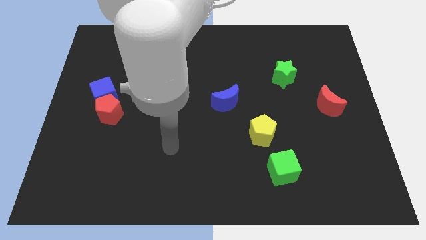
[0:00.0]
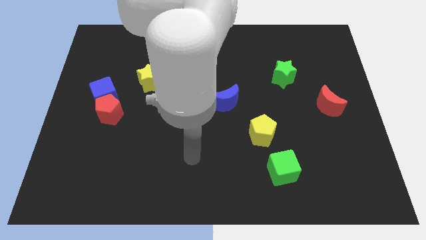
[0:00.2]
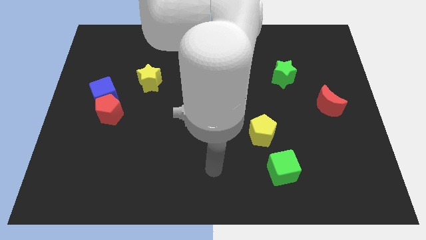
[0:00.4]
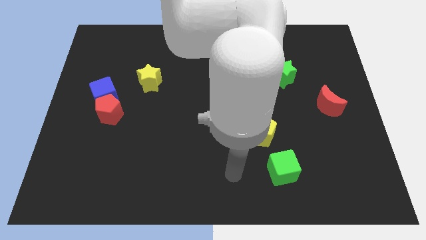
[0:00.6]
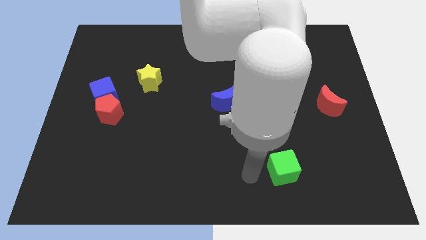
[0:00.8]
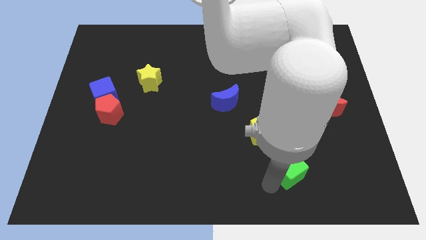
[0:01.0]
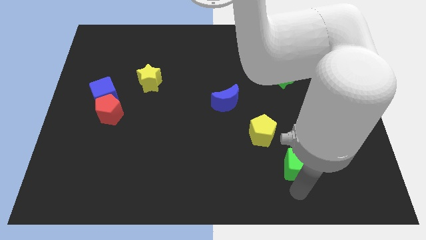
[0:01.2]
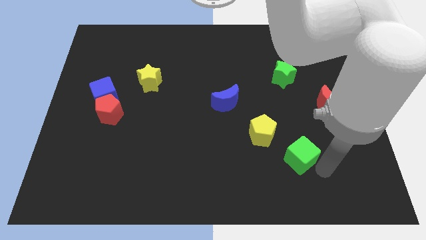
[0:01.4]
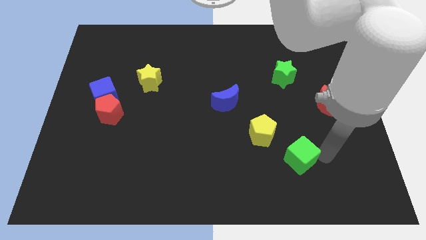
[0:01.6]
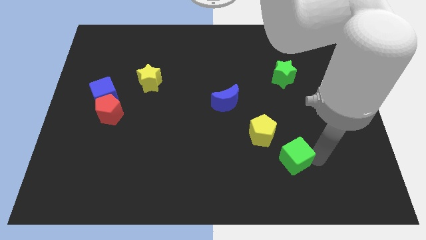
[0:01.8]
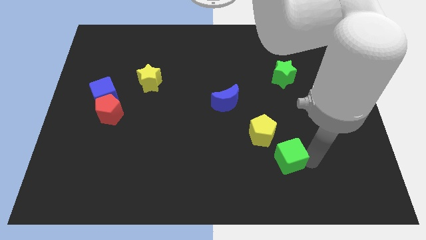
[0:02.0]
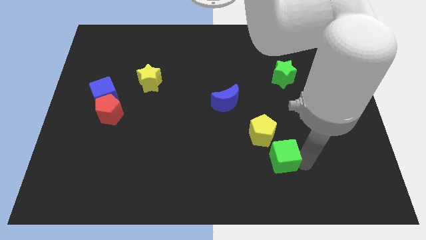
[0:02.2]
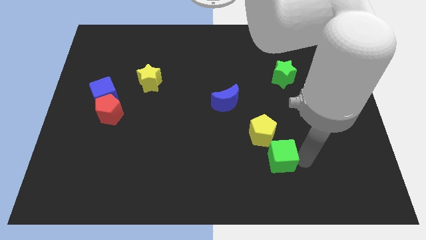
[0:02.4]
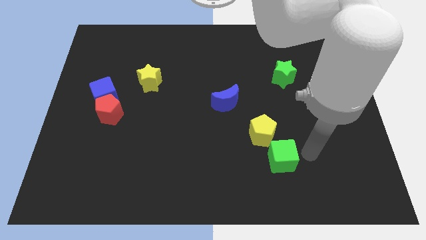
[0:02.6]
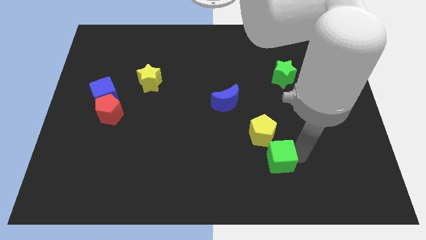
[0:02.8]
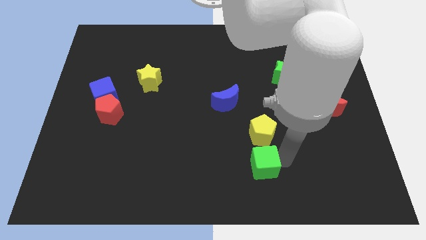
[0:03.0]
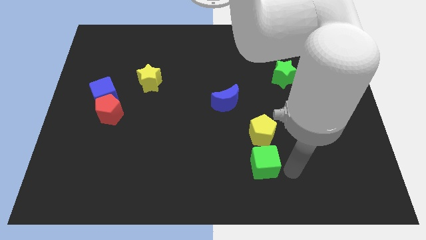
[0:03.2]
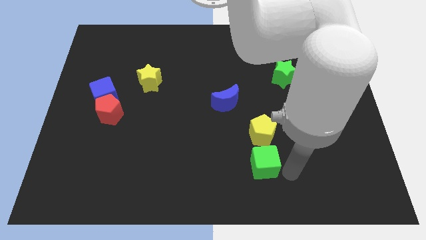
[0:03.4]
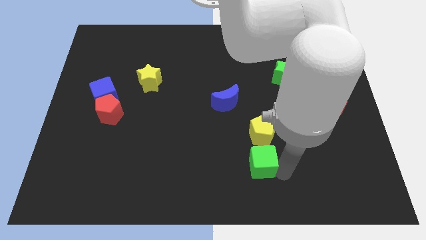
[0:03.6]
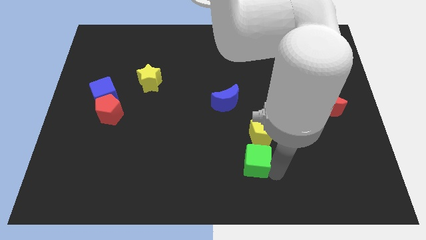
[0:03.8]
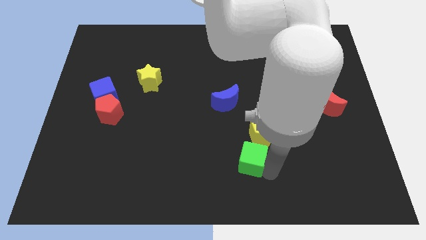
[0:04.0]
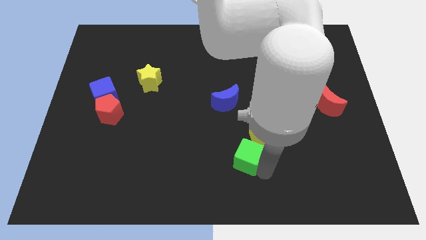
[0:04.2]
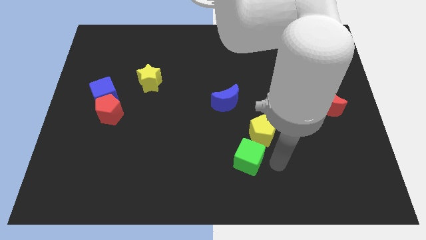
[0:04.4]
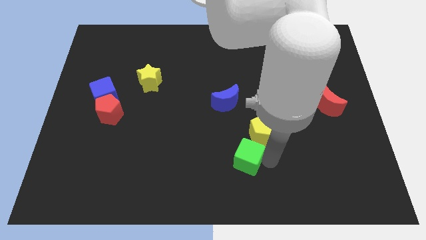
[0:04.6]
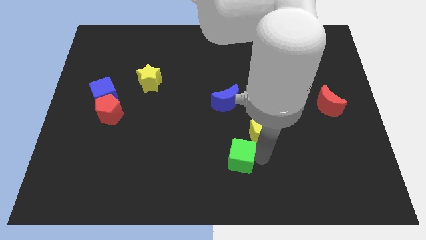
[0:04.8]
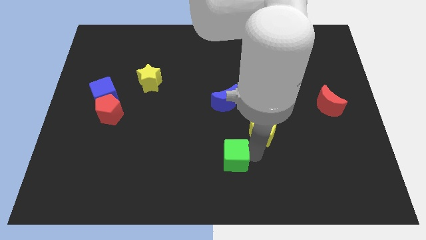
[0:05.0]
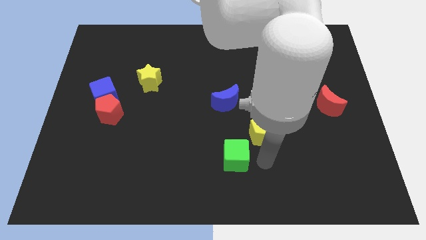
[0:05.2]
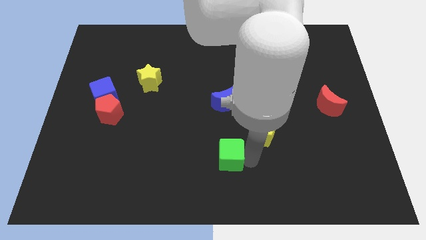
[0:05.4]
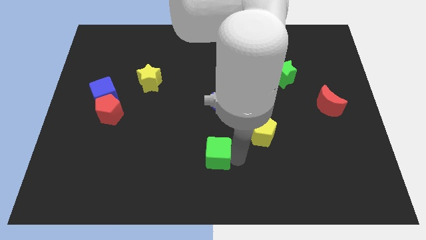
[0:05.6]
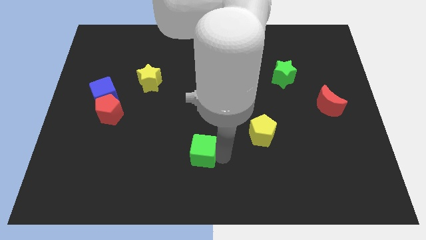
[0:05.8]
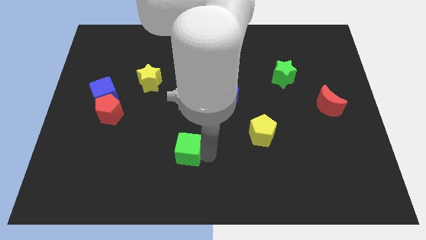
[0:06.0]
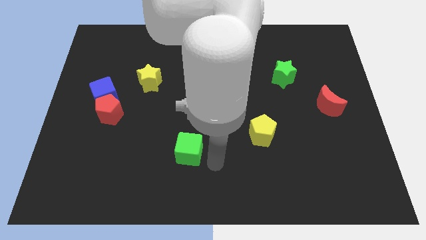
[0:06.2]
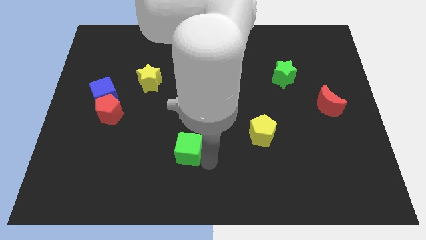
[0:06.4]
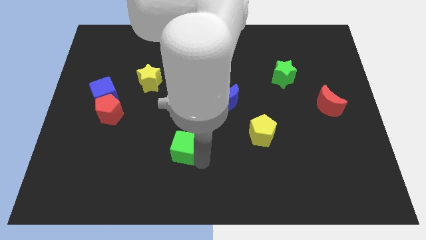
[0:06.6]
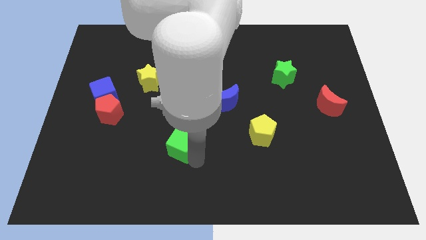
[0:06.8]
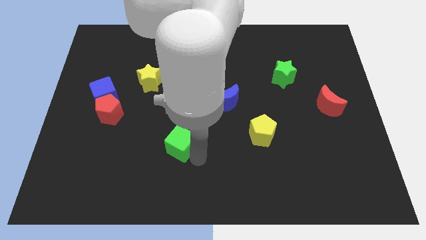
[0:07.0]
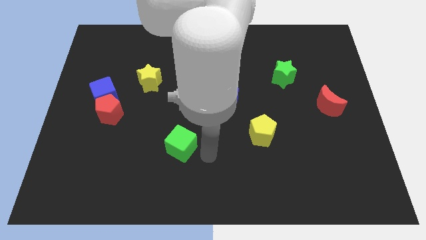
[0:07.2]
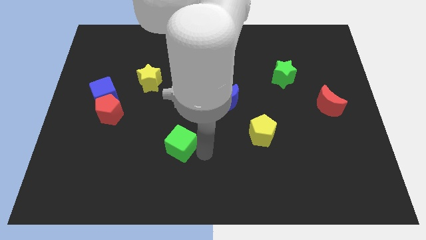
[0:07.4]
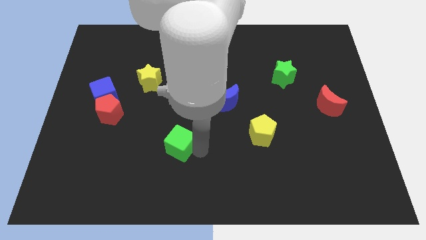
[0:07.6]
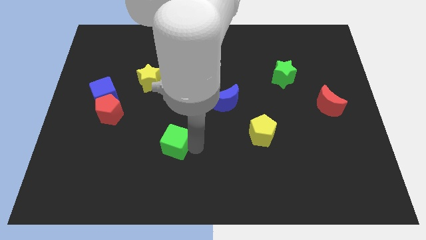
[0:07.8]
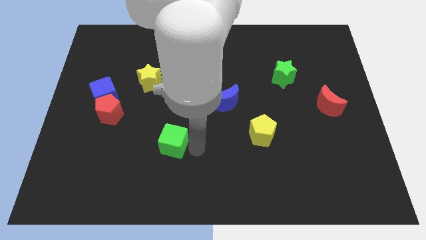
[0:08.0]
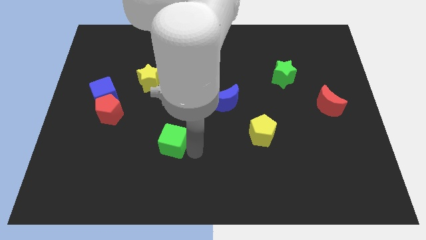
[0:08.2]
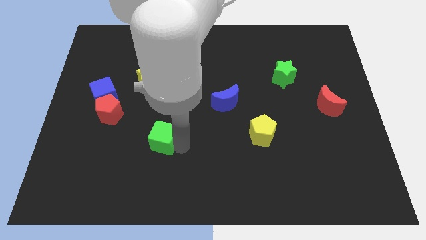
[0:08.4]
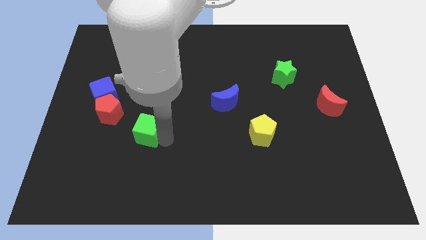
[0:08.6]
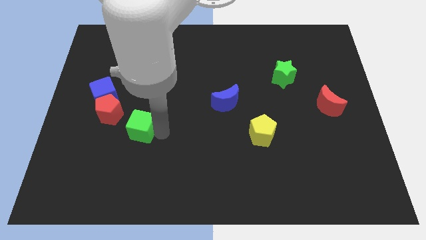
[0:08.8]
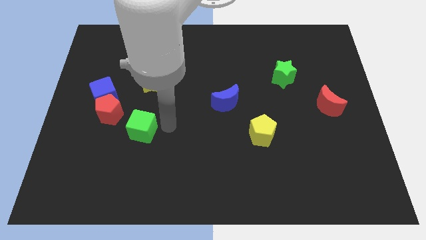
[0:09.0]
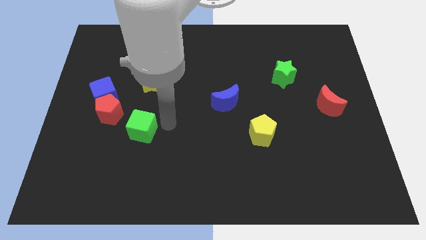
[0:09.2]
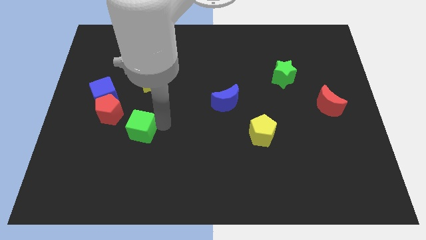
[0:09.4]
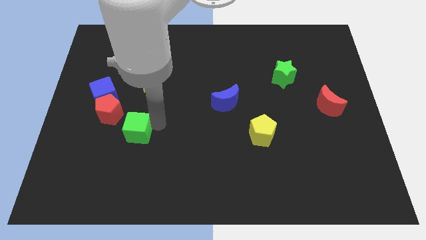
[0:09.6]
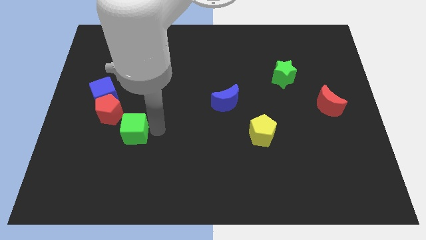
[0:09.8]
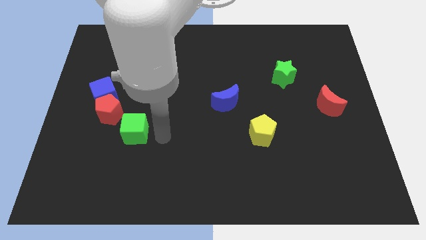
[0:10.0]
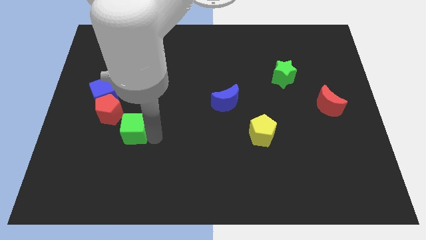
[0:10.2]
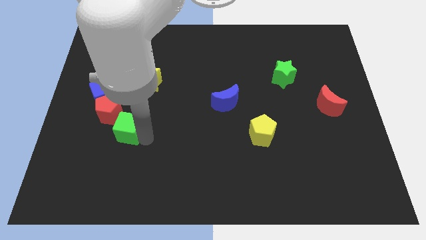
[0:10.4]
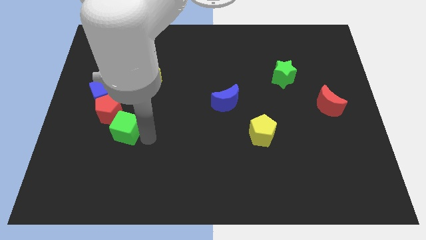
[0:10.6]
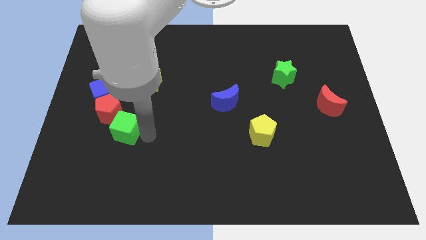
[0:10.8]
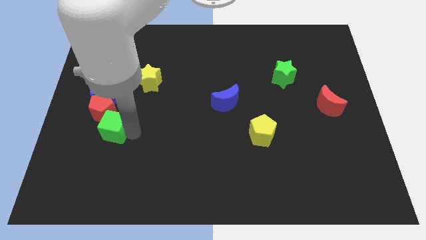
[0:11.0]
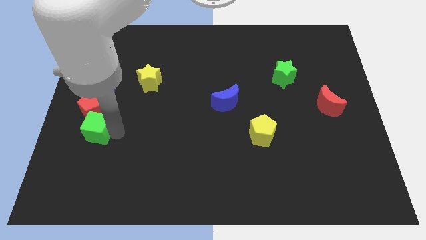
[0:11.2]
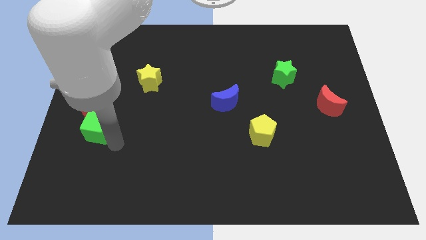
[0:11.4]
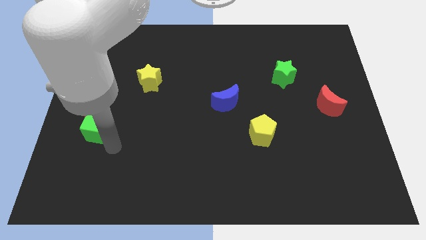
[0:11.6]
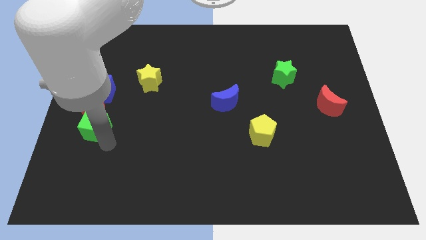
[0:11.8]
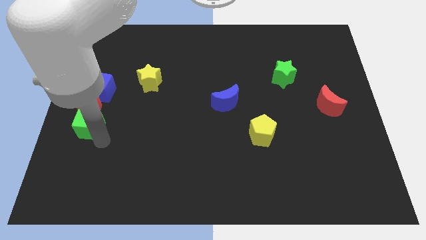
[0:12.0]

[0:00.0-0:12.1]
move the green cube to the left side
